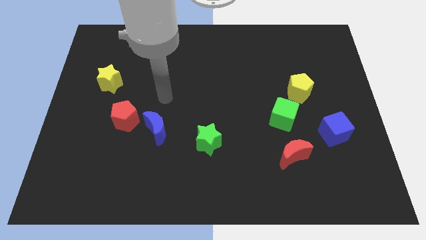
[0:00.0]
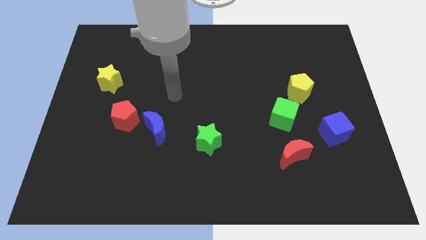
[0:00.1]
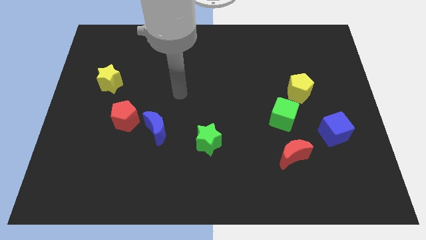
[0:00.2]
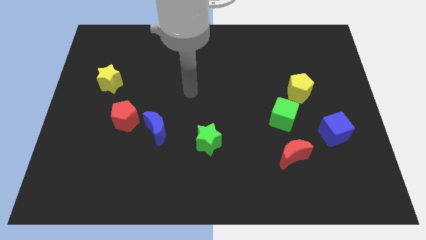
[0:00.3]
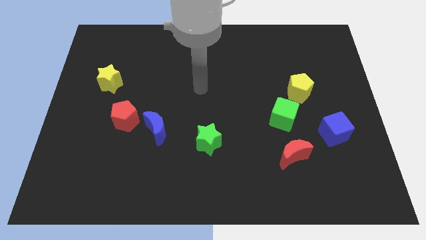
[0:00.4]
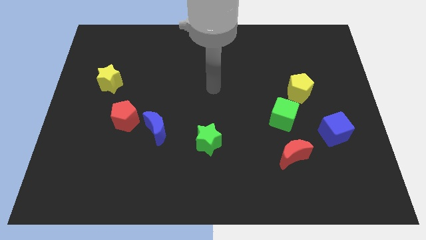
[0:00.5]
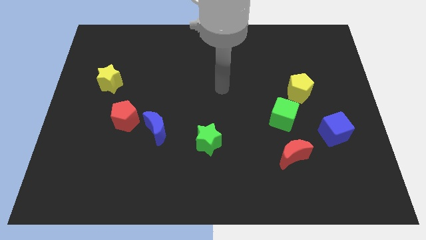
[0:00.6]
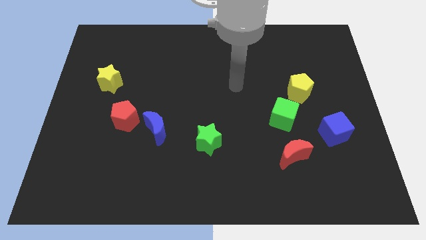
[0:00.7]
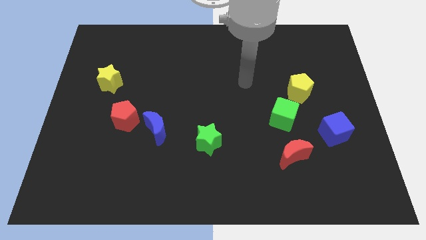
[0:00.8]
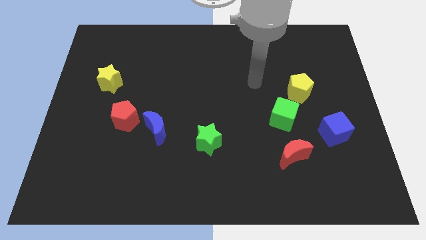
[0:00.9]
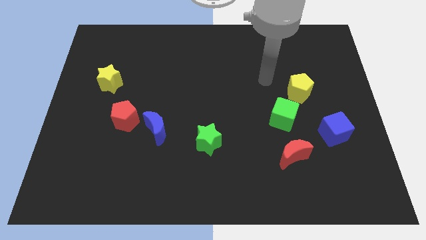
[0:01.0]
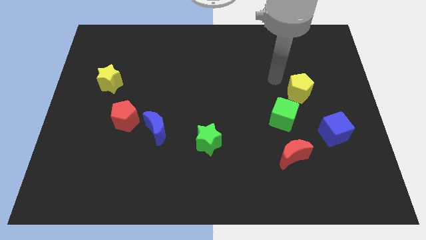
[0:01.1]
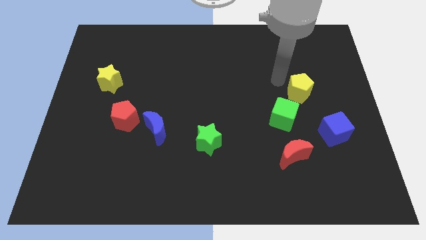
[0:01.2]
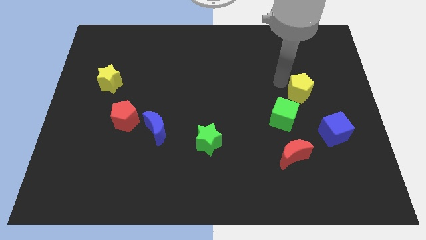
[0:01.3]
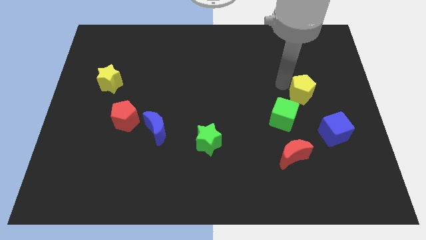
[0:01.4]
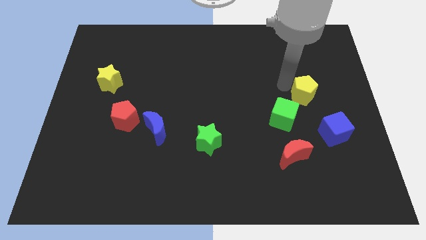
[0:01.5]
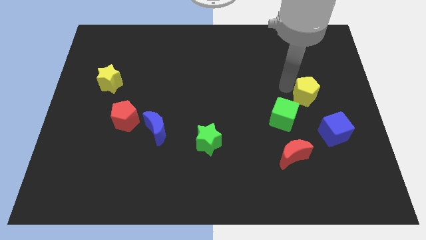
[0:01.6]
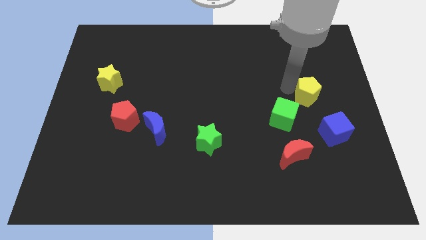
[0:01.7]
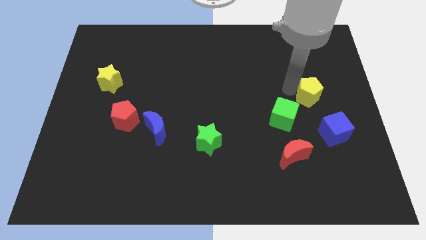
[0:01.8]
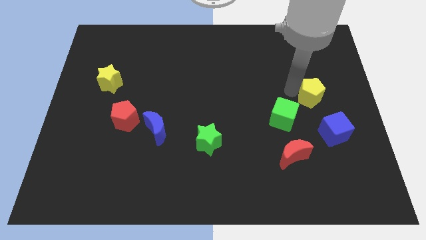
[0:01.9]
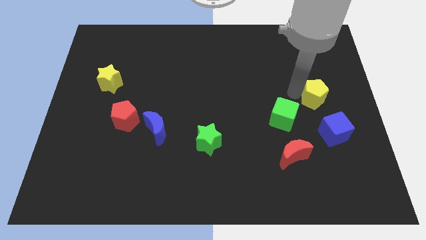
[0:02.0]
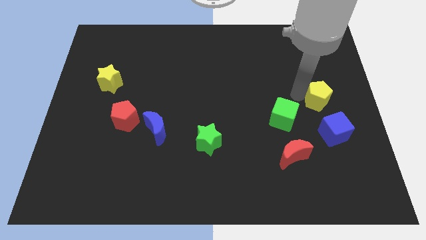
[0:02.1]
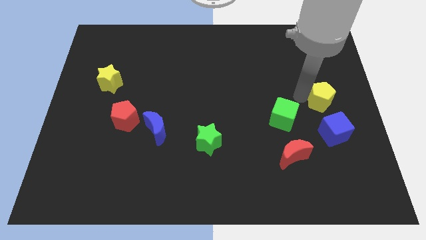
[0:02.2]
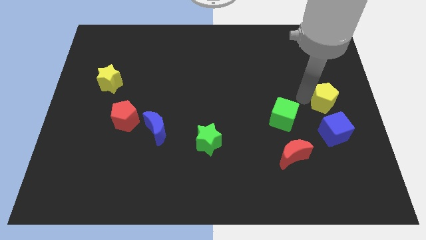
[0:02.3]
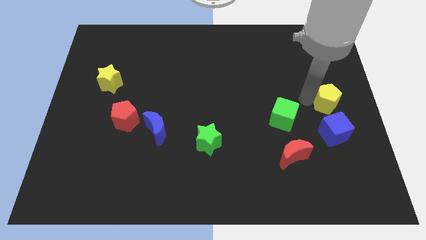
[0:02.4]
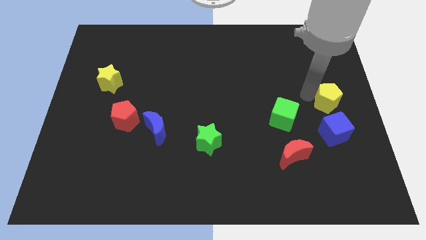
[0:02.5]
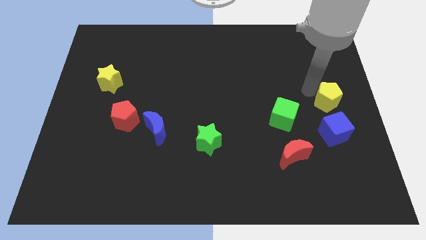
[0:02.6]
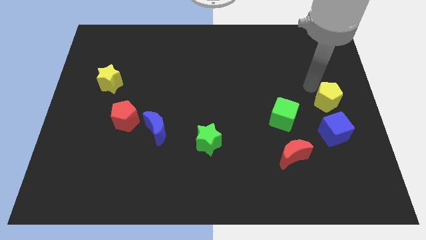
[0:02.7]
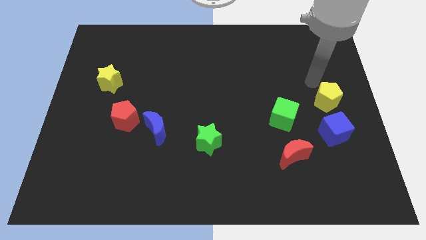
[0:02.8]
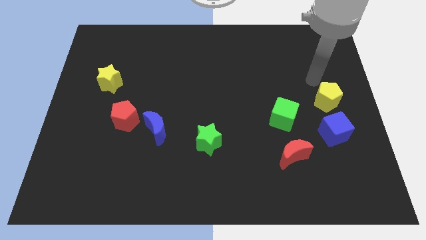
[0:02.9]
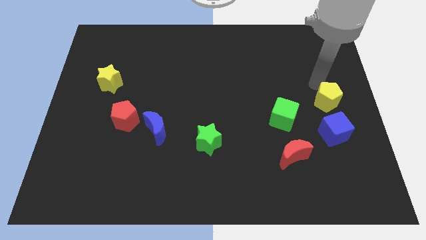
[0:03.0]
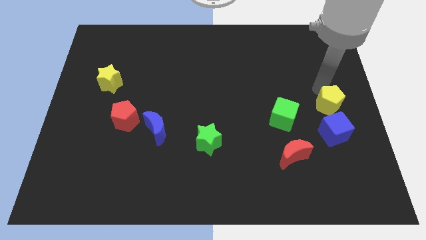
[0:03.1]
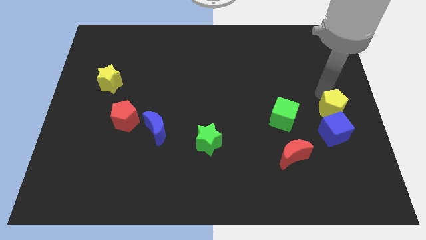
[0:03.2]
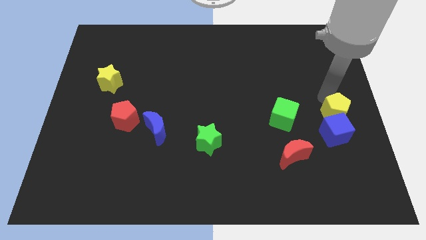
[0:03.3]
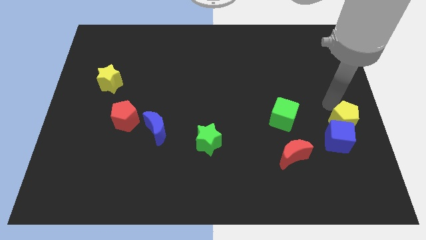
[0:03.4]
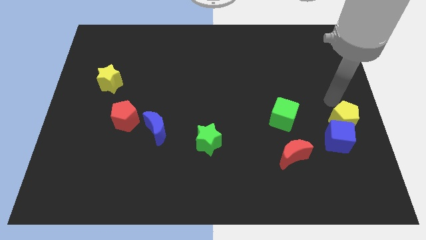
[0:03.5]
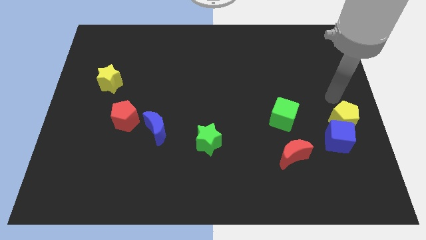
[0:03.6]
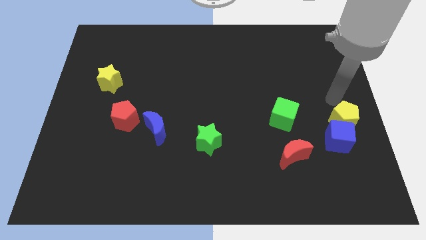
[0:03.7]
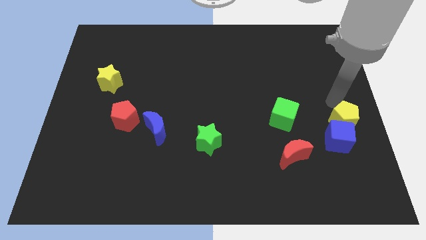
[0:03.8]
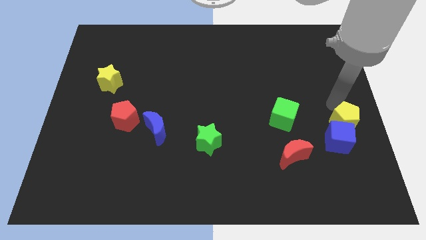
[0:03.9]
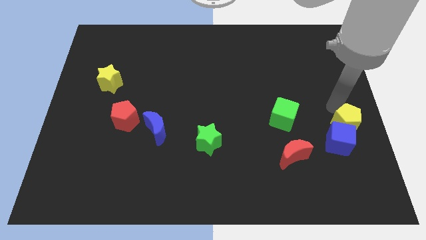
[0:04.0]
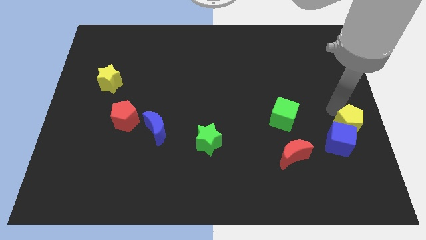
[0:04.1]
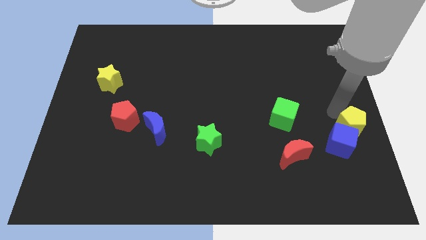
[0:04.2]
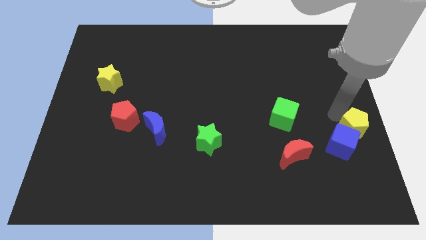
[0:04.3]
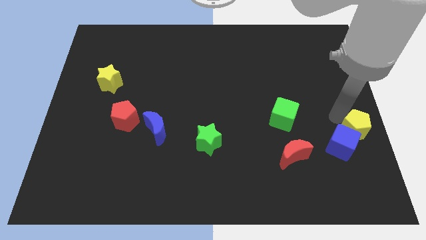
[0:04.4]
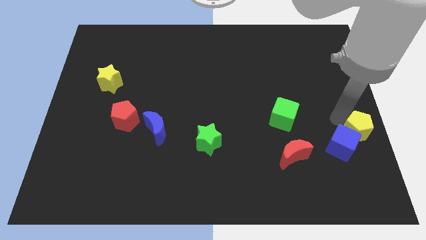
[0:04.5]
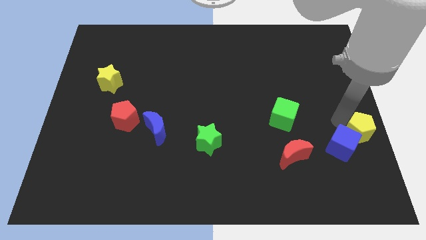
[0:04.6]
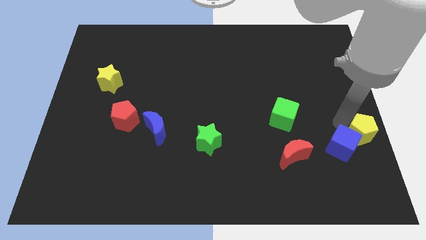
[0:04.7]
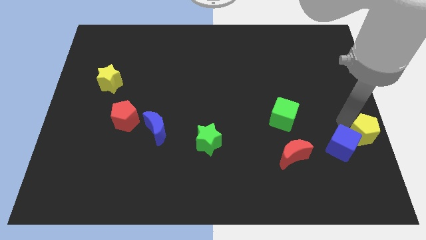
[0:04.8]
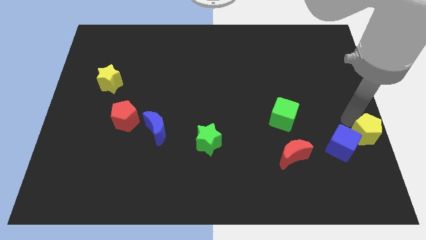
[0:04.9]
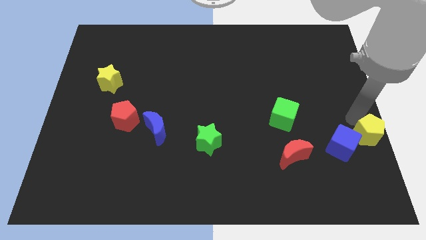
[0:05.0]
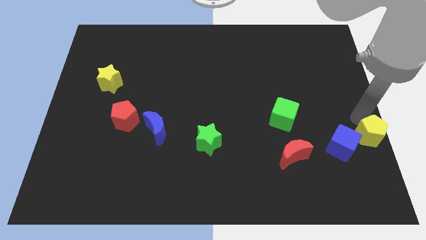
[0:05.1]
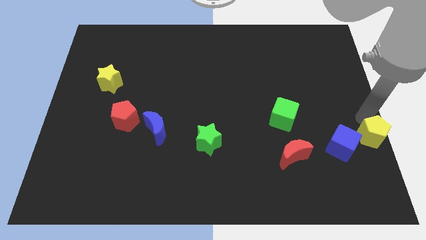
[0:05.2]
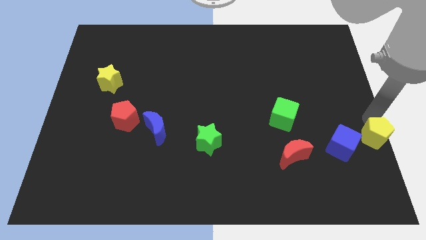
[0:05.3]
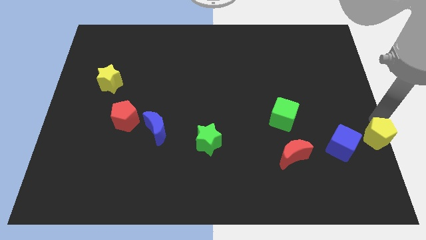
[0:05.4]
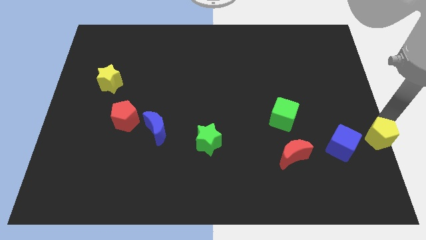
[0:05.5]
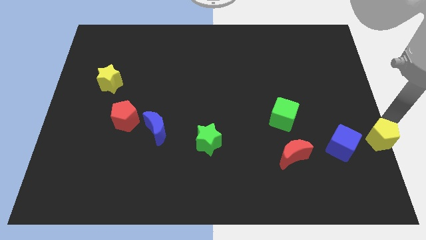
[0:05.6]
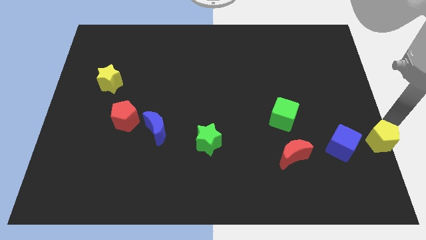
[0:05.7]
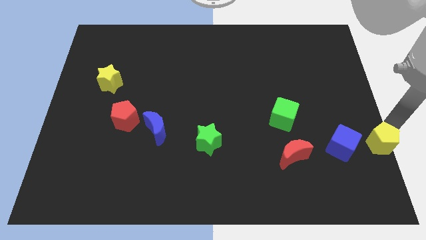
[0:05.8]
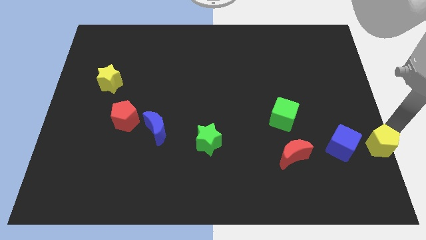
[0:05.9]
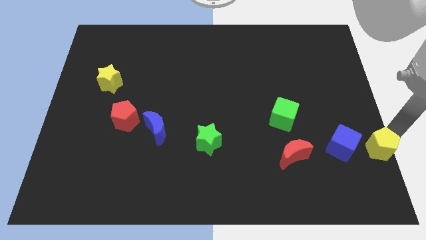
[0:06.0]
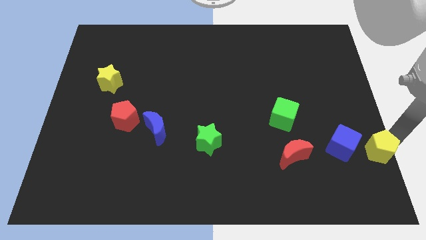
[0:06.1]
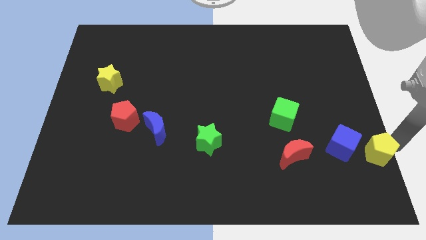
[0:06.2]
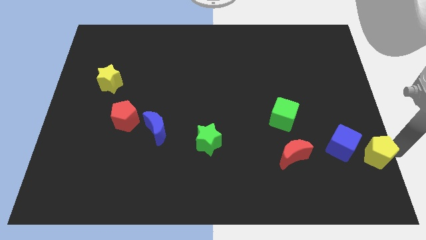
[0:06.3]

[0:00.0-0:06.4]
put the yellow pentagon to the bottom right of the board

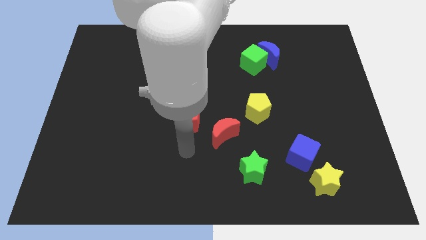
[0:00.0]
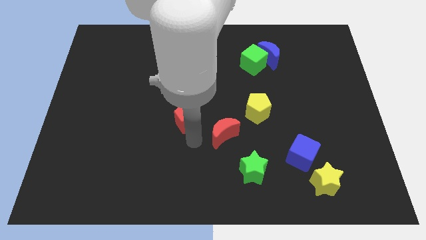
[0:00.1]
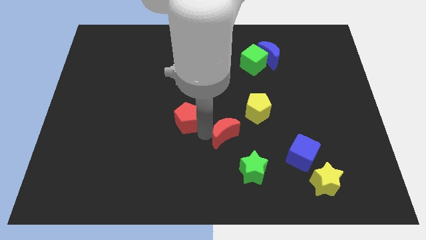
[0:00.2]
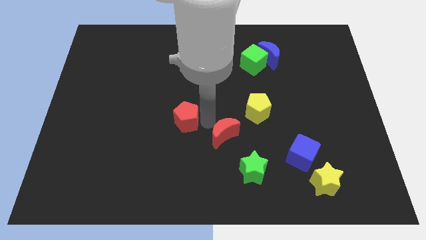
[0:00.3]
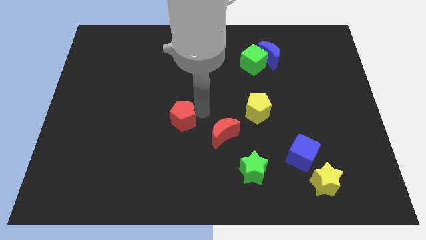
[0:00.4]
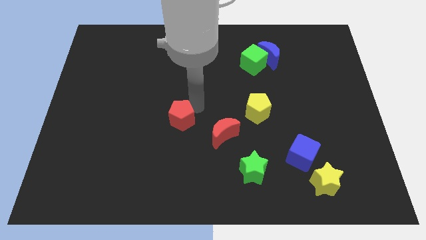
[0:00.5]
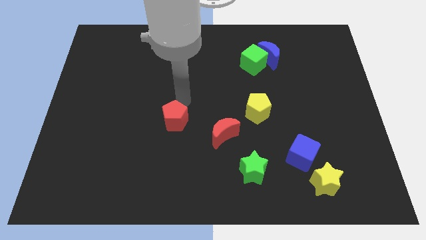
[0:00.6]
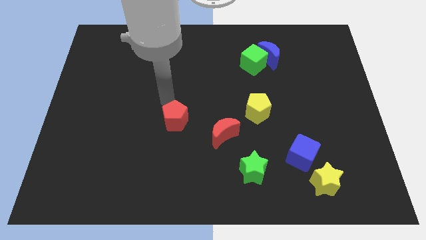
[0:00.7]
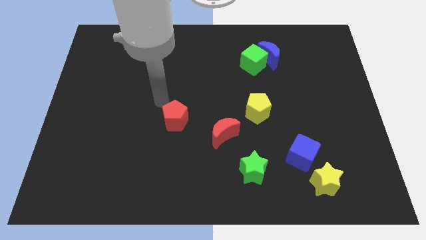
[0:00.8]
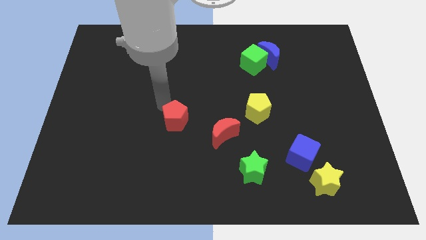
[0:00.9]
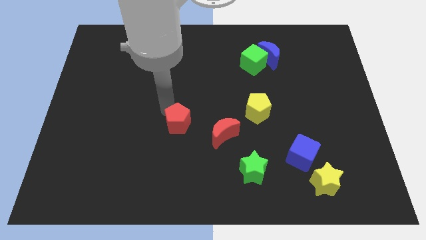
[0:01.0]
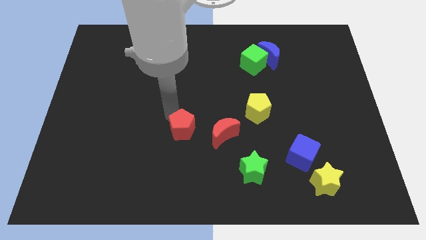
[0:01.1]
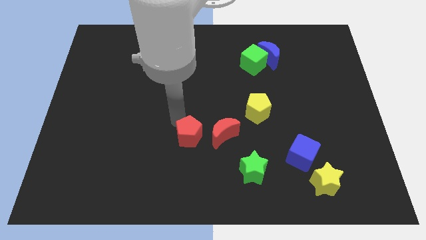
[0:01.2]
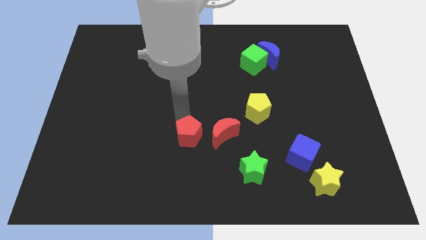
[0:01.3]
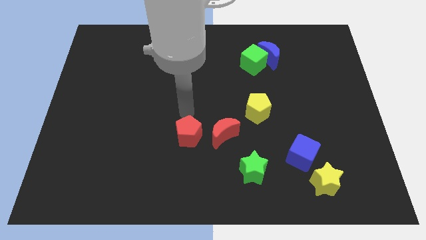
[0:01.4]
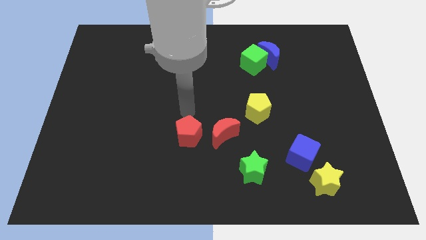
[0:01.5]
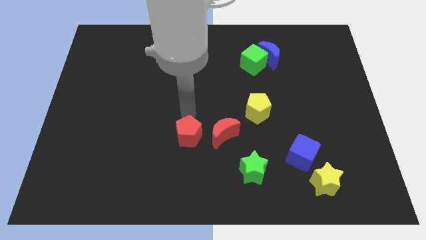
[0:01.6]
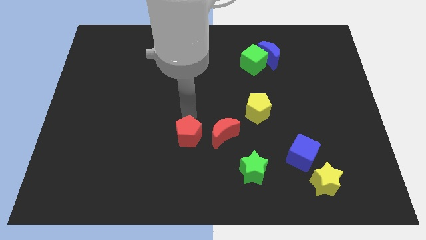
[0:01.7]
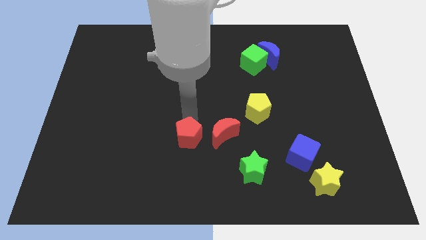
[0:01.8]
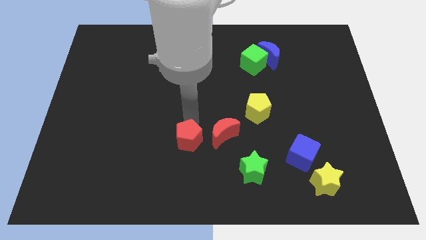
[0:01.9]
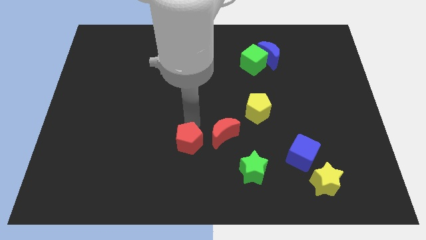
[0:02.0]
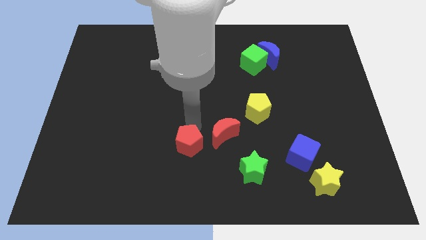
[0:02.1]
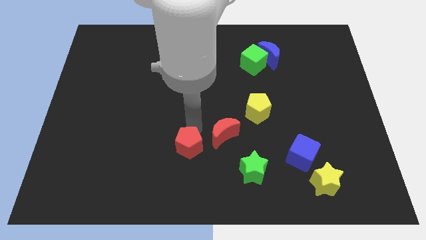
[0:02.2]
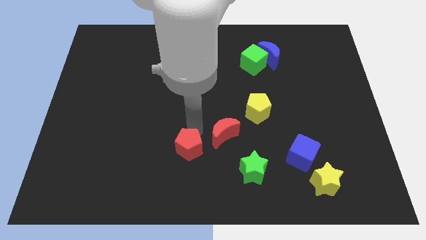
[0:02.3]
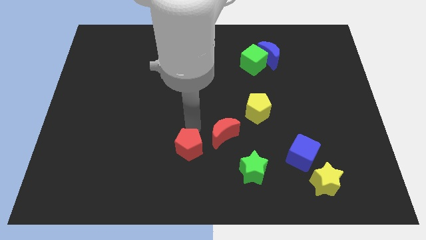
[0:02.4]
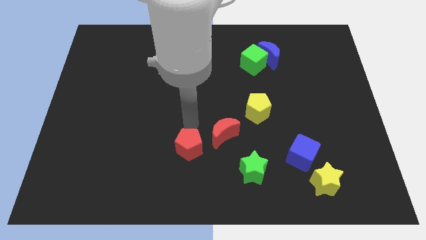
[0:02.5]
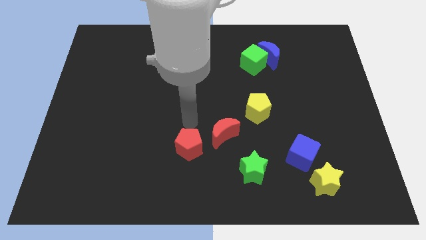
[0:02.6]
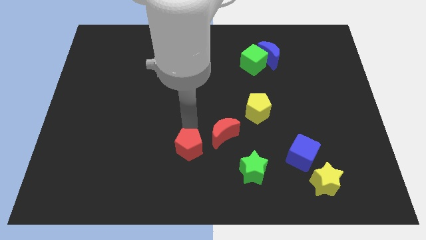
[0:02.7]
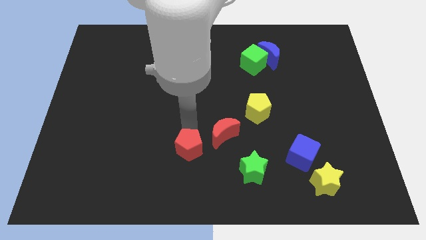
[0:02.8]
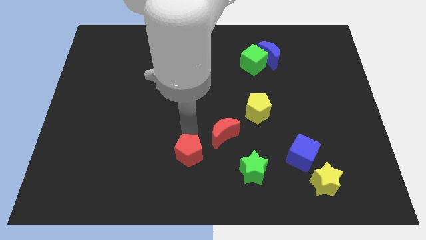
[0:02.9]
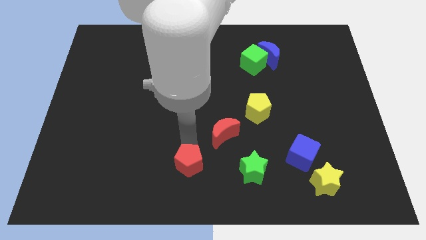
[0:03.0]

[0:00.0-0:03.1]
slide the red pentagon to the bottom side
